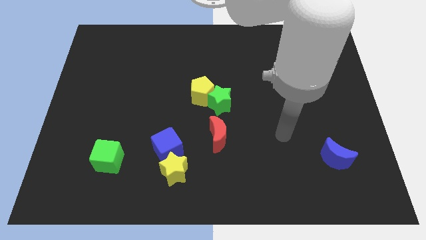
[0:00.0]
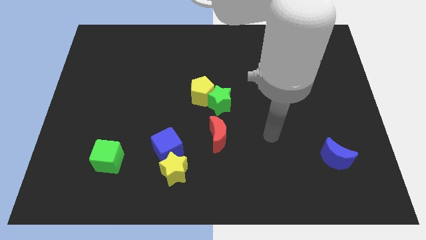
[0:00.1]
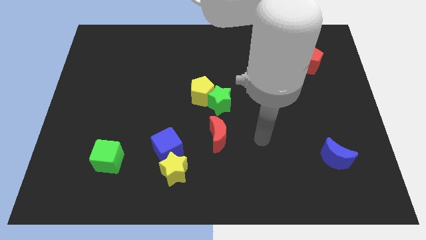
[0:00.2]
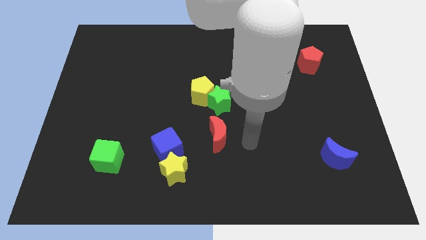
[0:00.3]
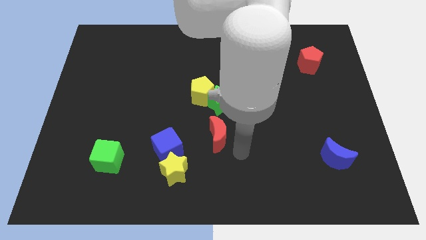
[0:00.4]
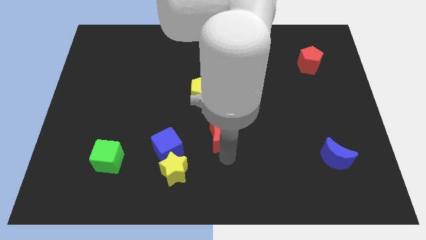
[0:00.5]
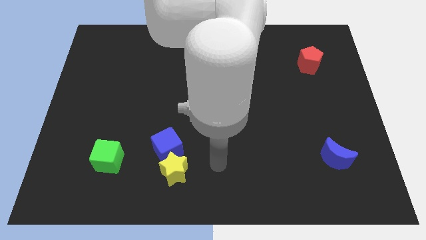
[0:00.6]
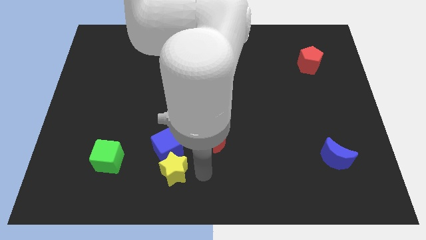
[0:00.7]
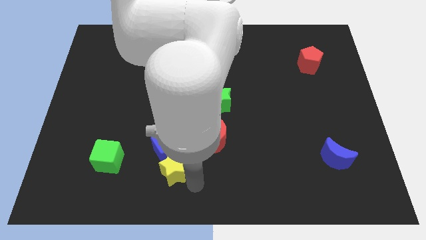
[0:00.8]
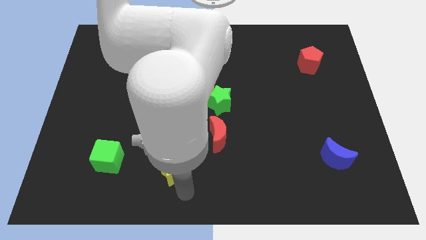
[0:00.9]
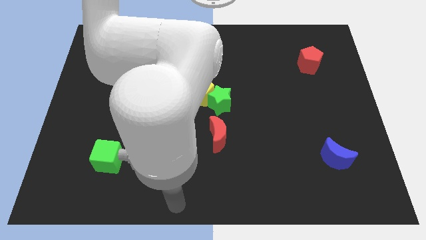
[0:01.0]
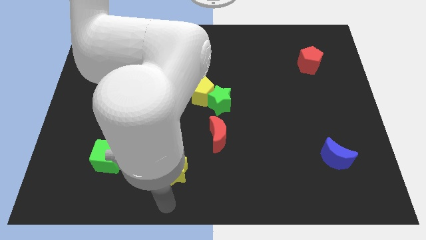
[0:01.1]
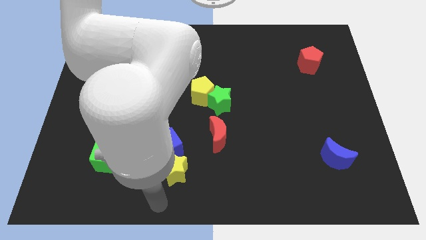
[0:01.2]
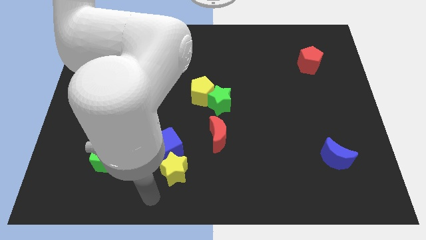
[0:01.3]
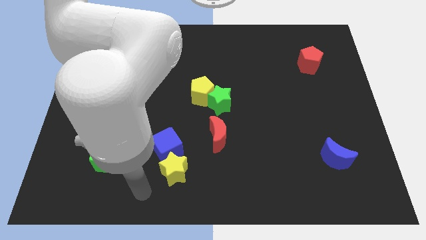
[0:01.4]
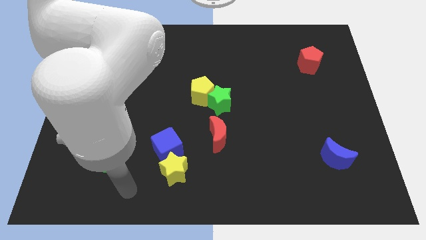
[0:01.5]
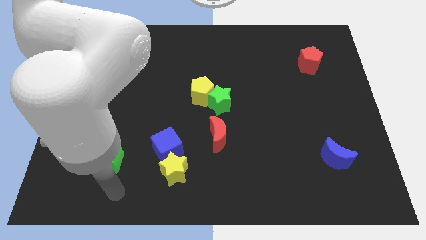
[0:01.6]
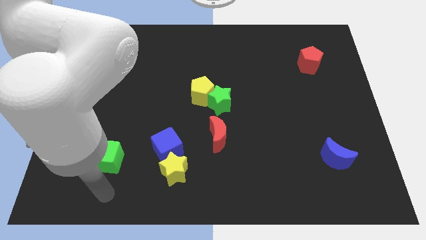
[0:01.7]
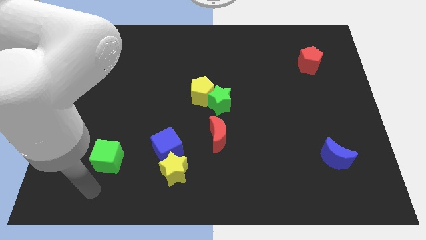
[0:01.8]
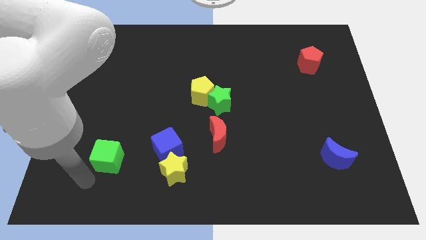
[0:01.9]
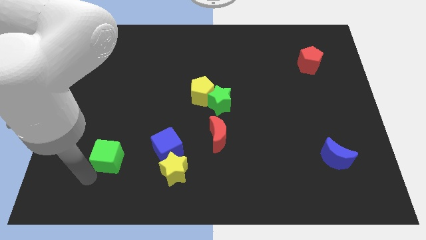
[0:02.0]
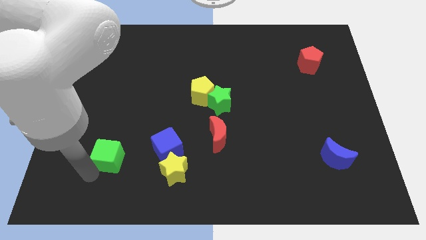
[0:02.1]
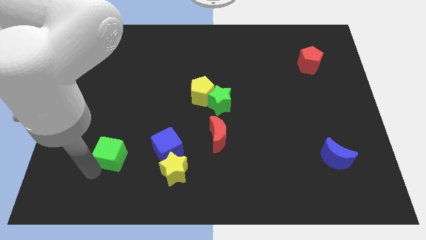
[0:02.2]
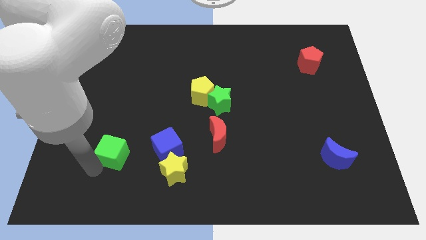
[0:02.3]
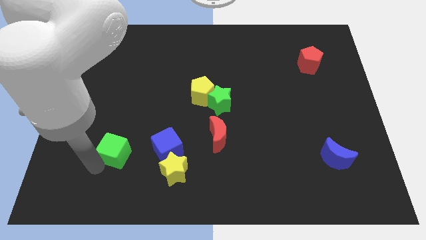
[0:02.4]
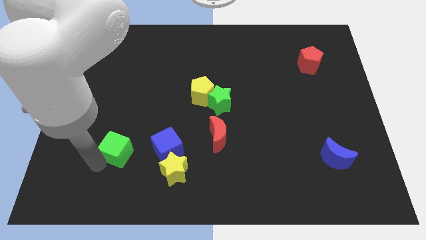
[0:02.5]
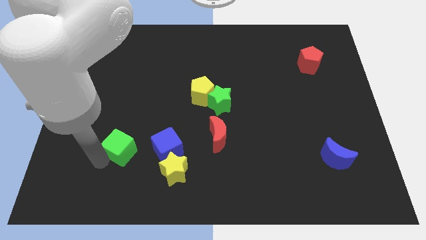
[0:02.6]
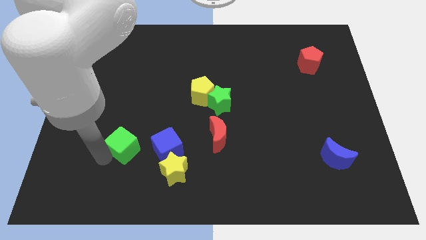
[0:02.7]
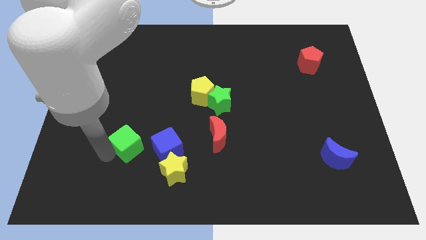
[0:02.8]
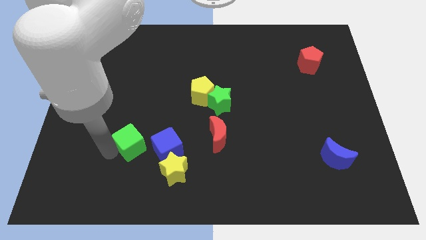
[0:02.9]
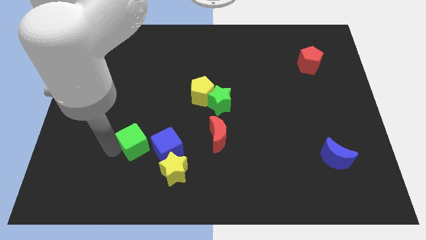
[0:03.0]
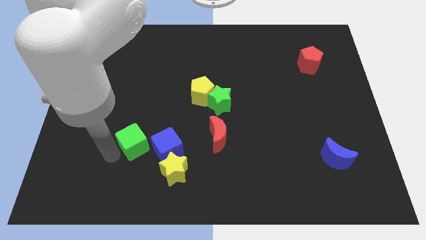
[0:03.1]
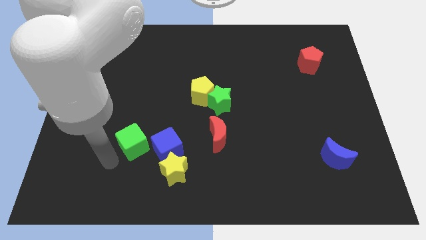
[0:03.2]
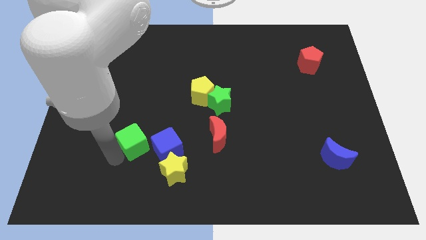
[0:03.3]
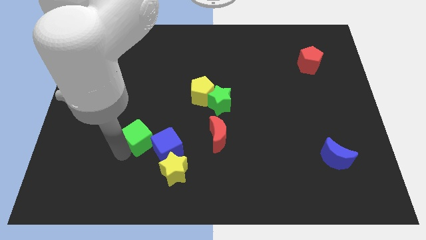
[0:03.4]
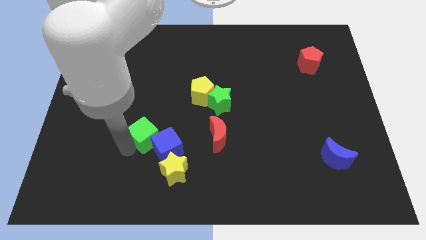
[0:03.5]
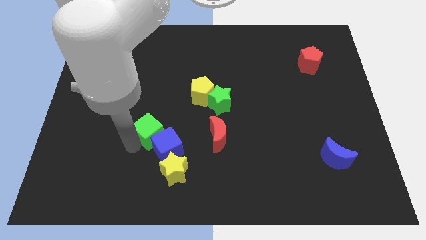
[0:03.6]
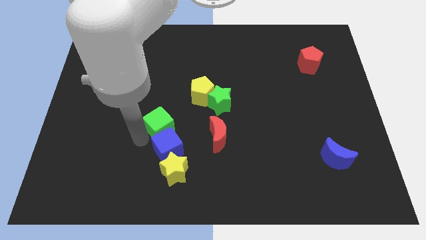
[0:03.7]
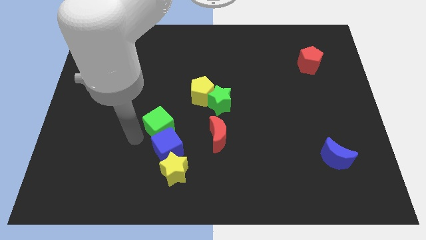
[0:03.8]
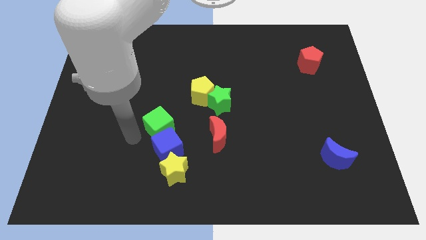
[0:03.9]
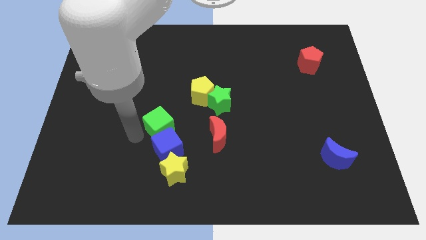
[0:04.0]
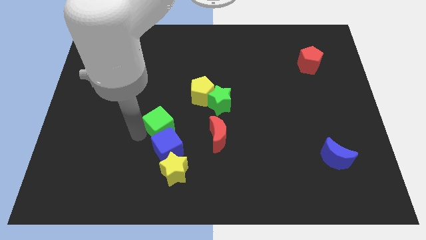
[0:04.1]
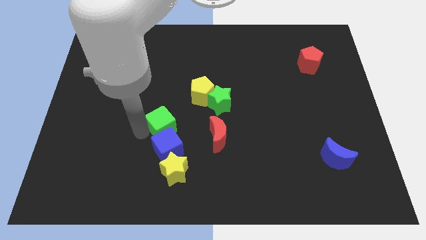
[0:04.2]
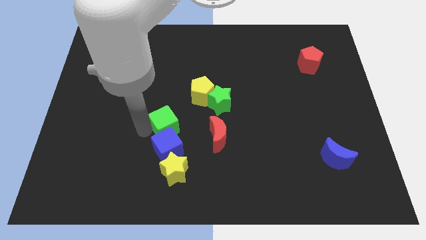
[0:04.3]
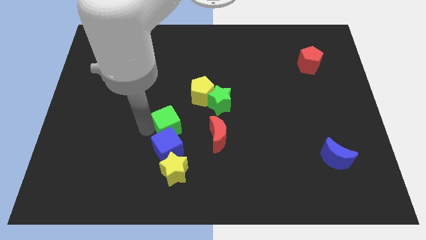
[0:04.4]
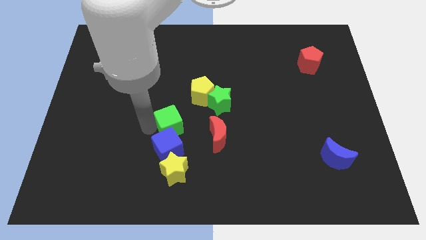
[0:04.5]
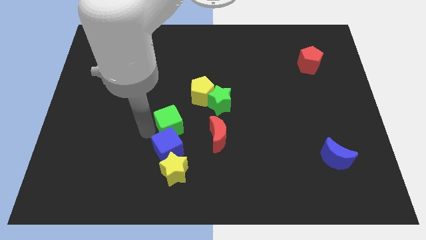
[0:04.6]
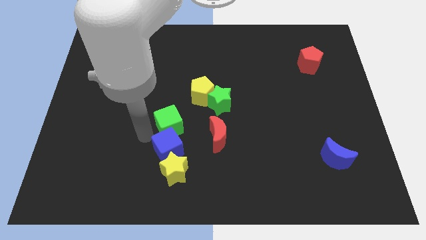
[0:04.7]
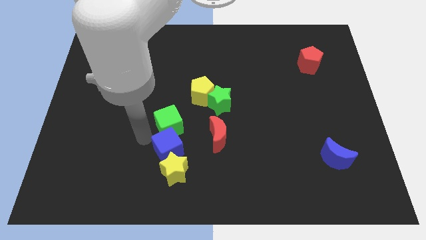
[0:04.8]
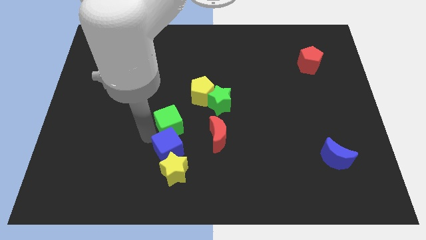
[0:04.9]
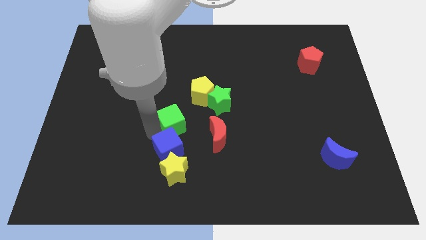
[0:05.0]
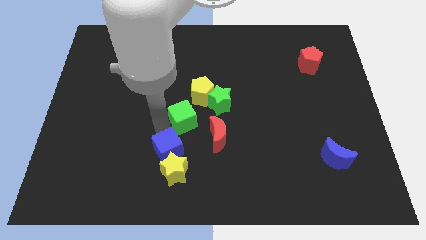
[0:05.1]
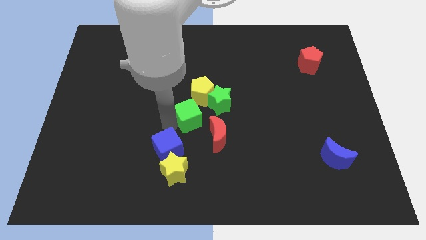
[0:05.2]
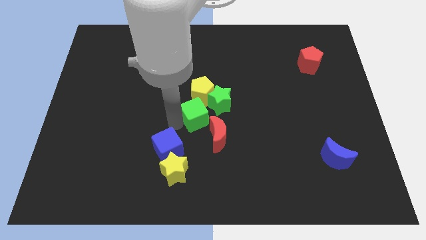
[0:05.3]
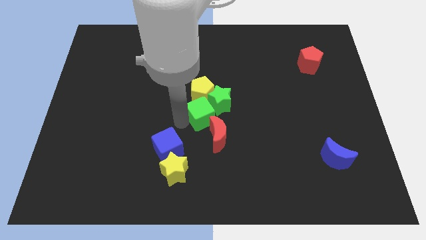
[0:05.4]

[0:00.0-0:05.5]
slide the green cube next to the green star

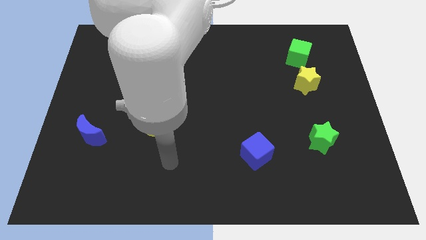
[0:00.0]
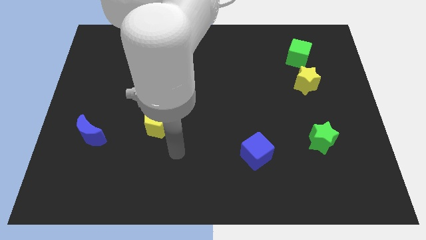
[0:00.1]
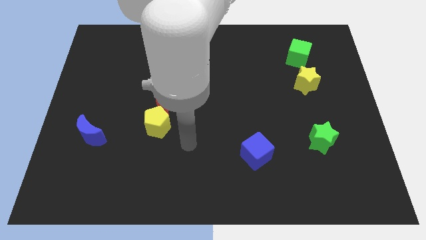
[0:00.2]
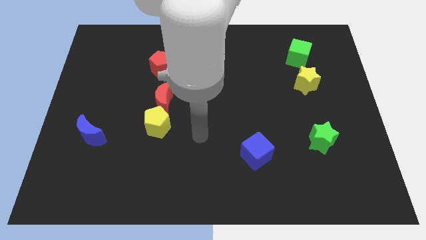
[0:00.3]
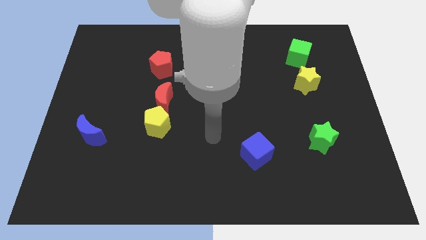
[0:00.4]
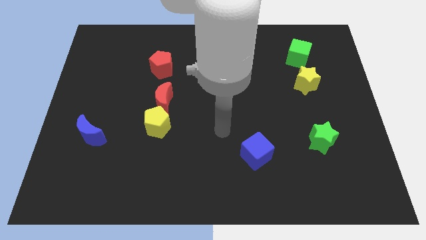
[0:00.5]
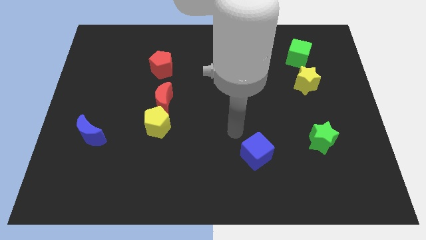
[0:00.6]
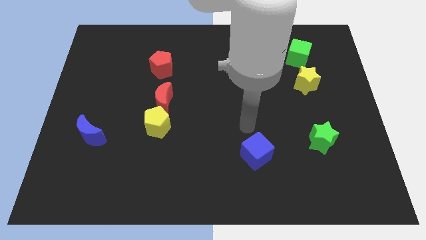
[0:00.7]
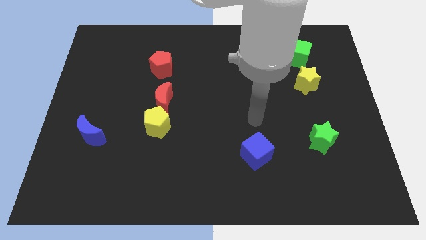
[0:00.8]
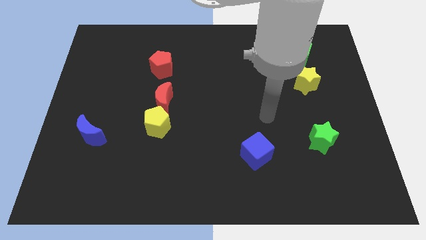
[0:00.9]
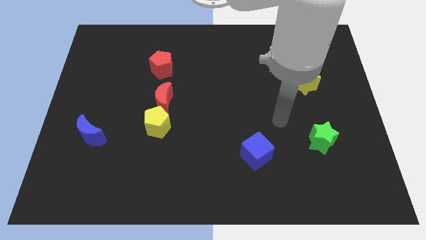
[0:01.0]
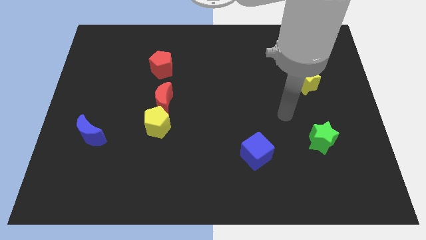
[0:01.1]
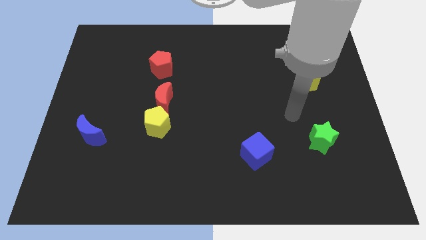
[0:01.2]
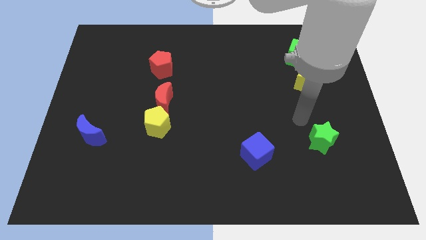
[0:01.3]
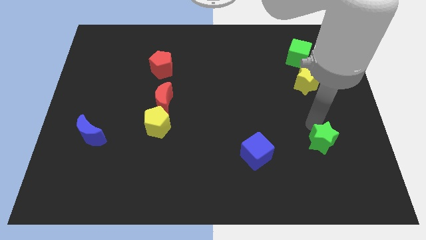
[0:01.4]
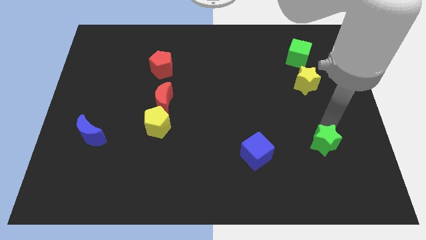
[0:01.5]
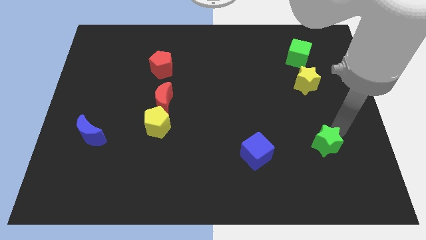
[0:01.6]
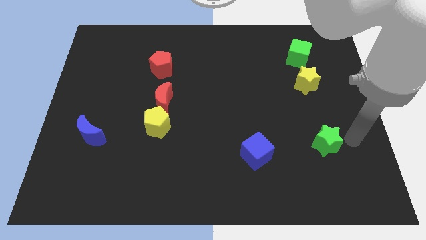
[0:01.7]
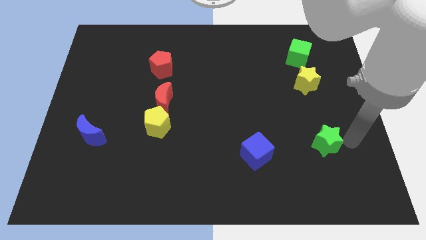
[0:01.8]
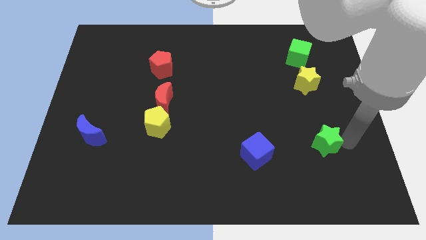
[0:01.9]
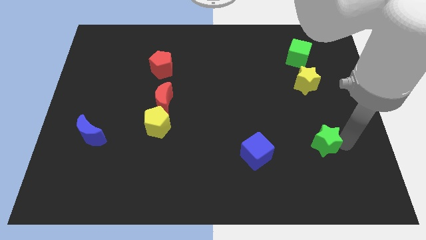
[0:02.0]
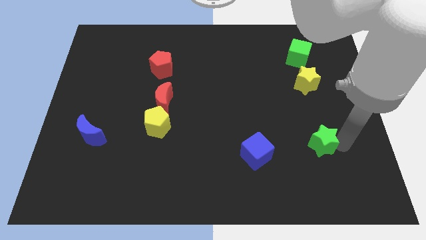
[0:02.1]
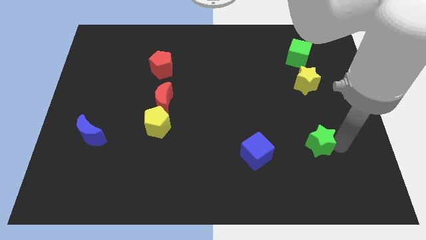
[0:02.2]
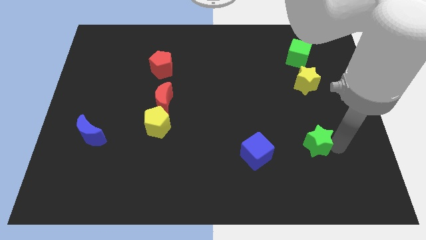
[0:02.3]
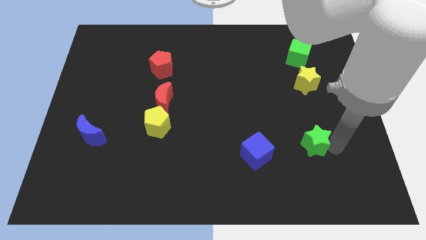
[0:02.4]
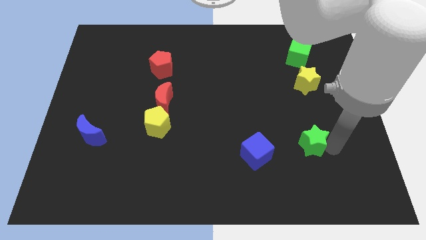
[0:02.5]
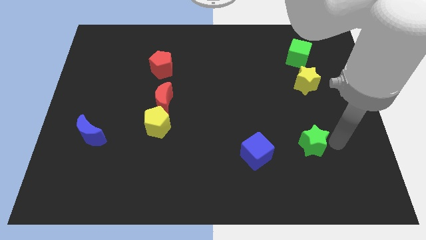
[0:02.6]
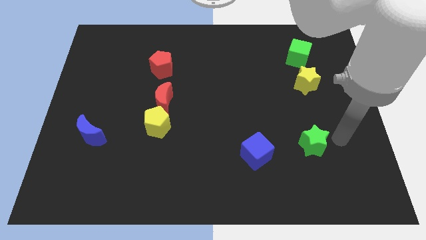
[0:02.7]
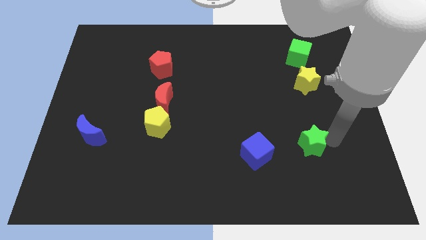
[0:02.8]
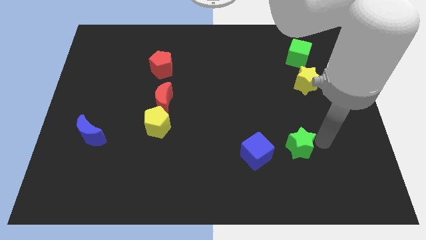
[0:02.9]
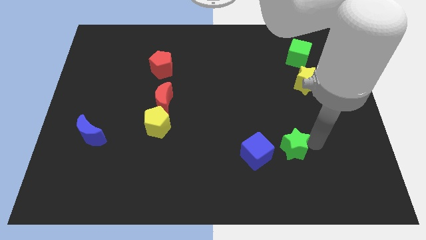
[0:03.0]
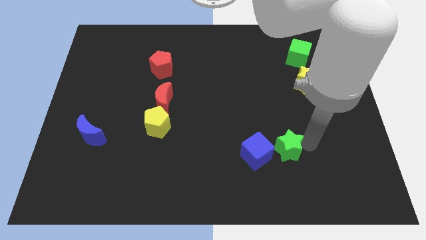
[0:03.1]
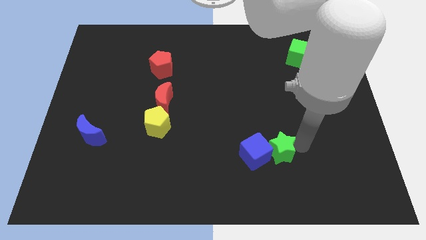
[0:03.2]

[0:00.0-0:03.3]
slide the green star next to the blue cube
